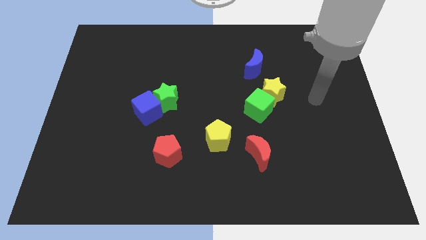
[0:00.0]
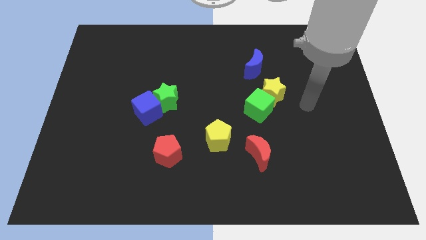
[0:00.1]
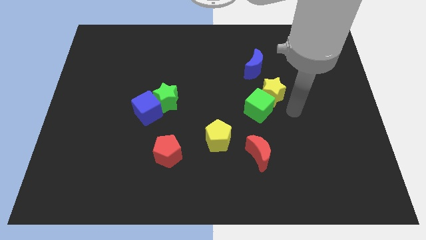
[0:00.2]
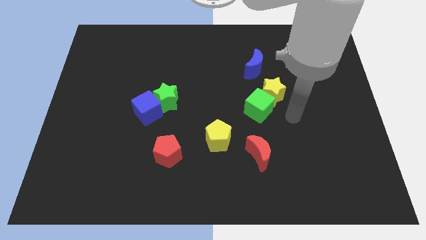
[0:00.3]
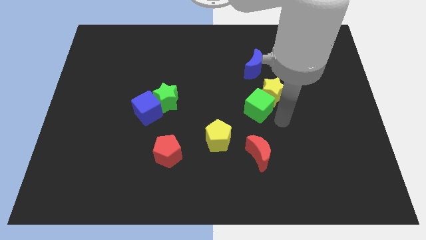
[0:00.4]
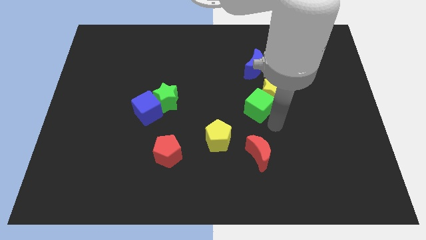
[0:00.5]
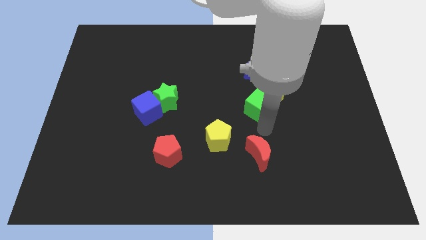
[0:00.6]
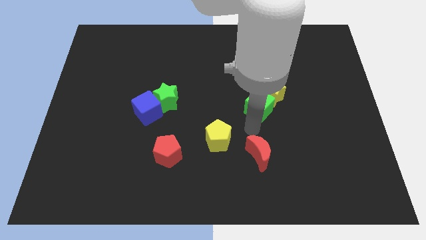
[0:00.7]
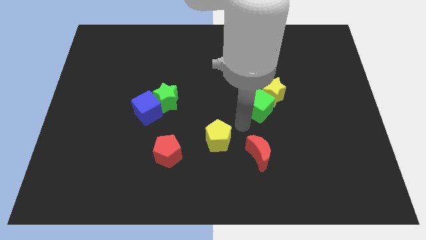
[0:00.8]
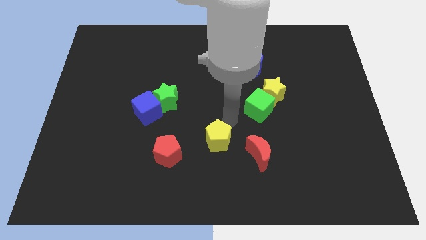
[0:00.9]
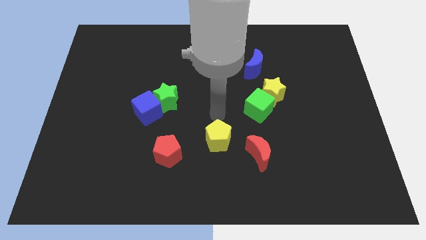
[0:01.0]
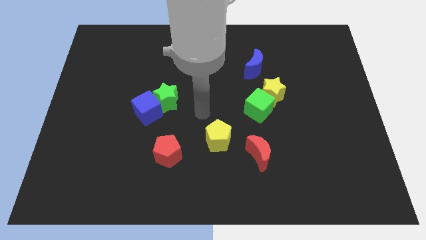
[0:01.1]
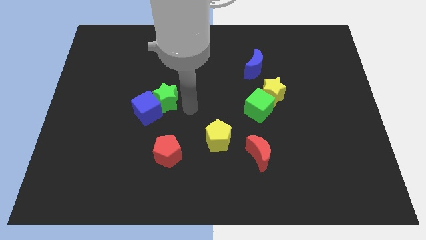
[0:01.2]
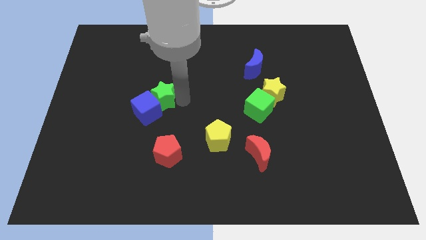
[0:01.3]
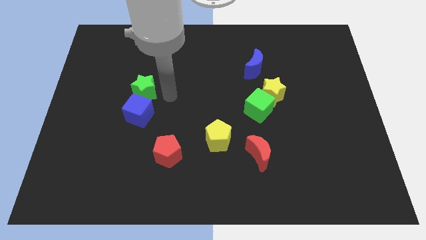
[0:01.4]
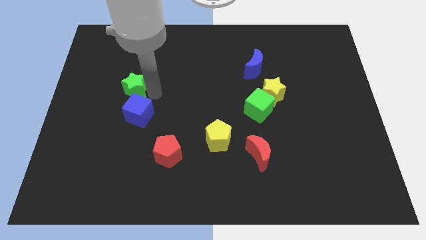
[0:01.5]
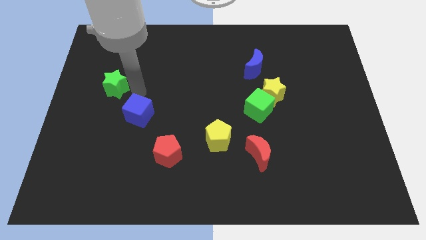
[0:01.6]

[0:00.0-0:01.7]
separate the blue cube from the green star

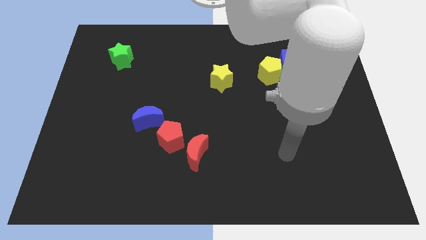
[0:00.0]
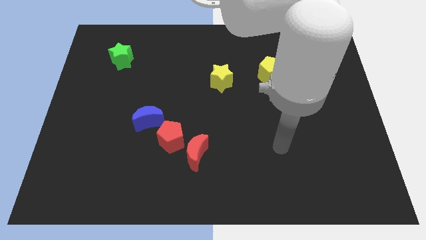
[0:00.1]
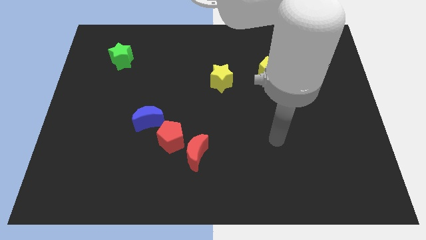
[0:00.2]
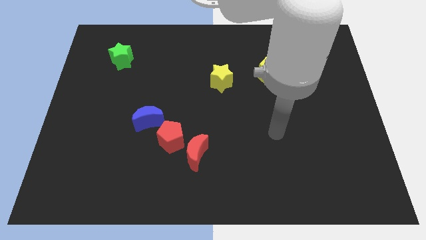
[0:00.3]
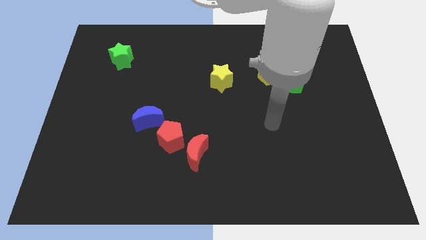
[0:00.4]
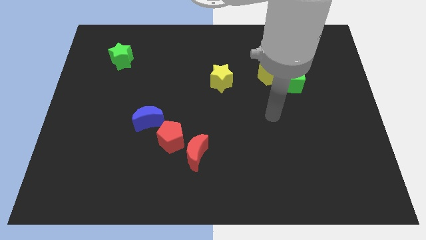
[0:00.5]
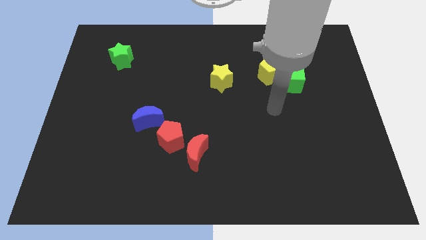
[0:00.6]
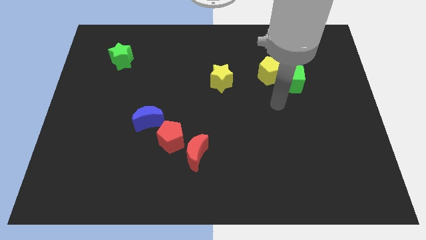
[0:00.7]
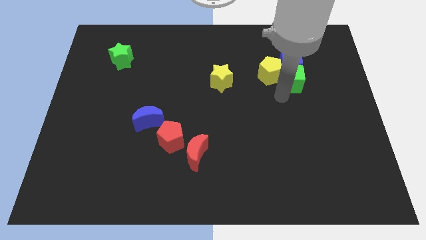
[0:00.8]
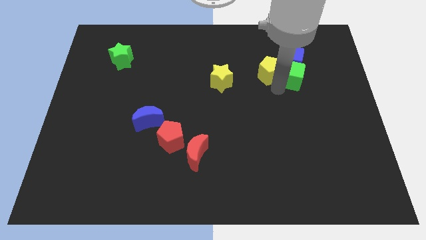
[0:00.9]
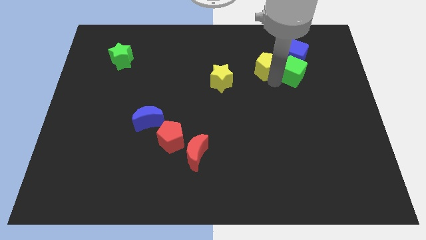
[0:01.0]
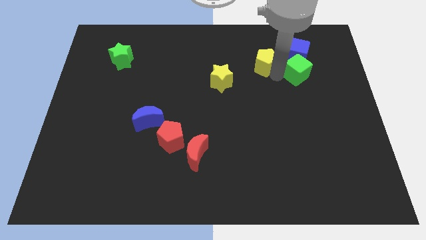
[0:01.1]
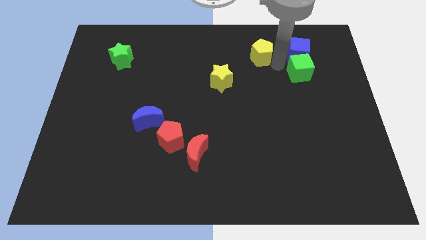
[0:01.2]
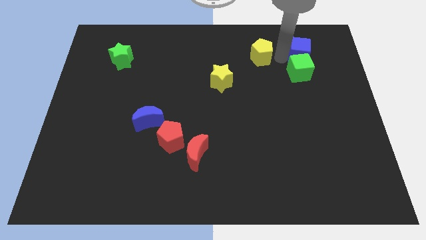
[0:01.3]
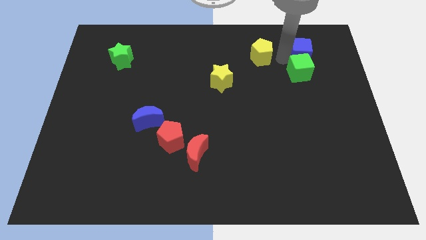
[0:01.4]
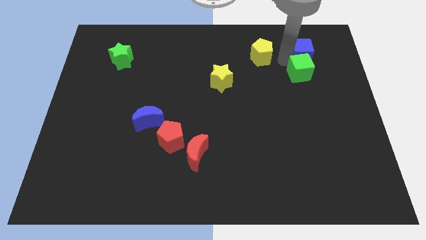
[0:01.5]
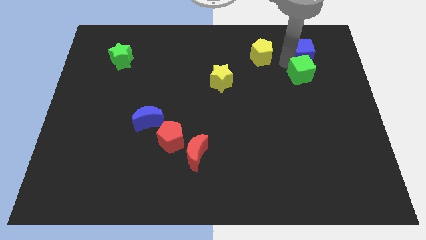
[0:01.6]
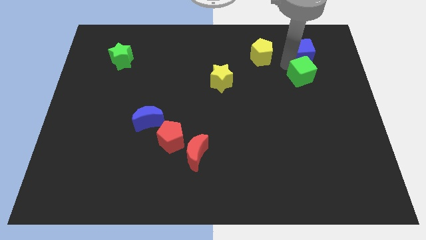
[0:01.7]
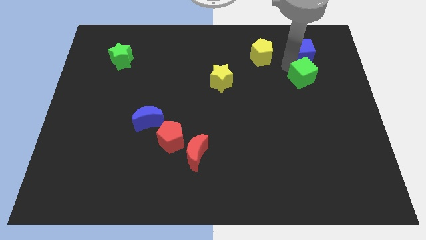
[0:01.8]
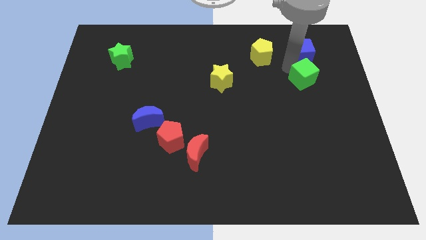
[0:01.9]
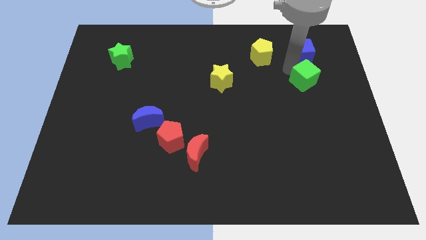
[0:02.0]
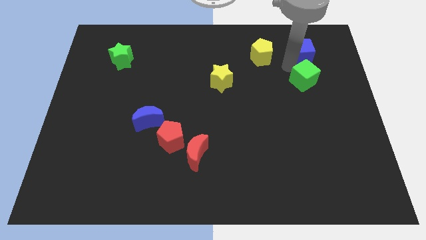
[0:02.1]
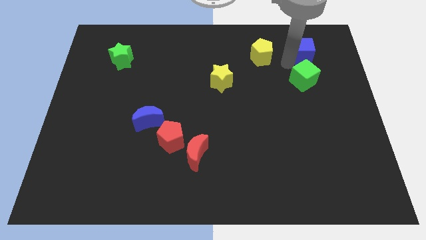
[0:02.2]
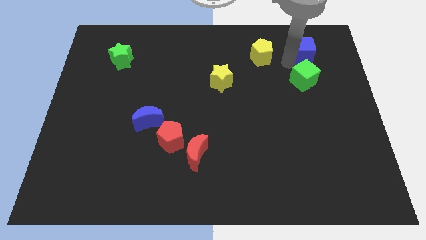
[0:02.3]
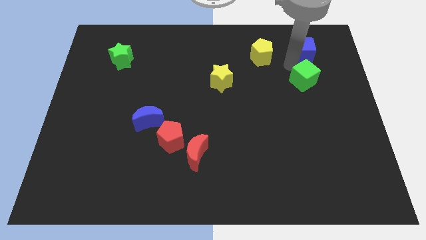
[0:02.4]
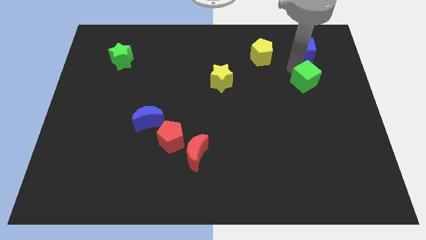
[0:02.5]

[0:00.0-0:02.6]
move the green cube away from the blue cube and yellow pentagon

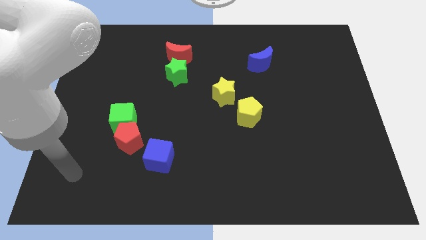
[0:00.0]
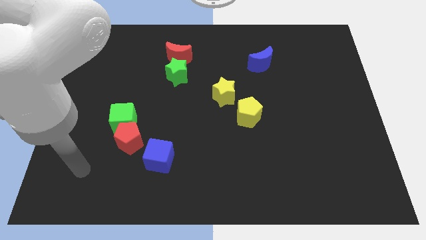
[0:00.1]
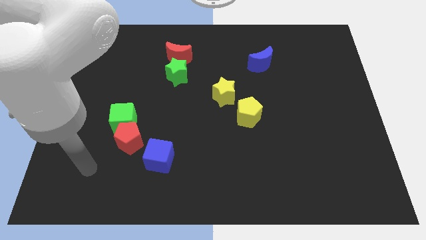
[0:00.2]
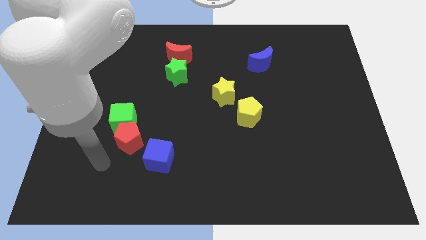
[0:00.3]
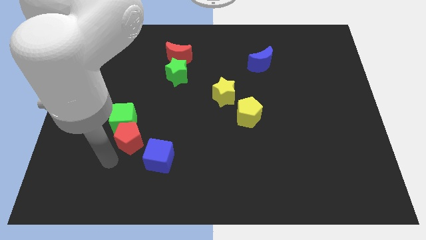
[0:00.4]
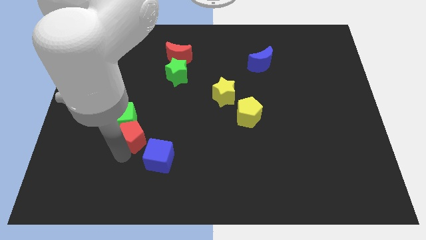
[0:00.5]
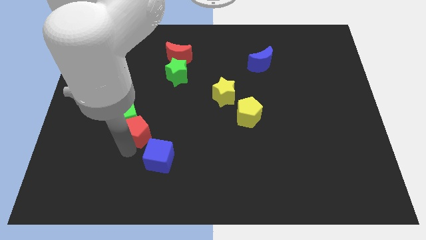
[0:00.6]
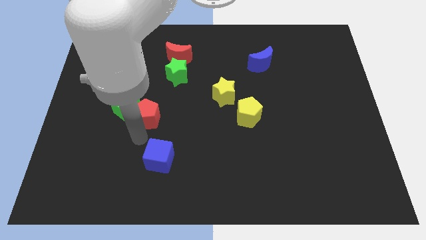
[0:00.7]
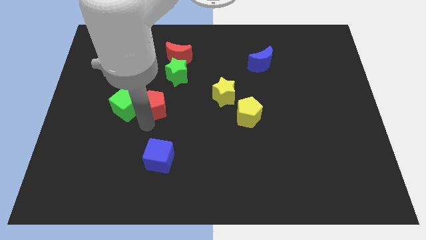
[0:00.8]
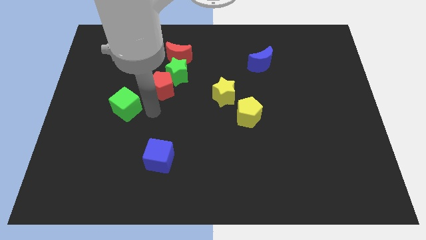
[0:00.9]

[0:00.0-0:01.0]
separate the green cube from the red pentagon

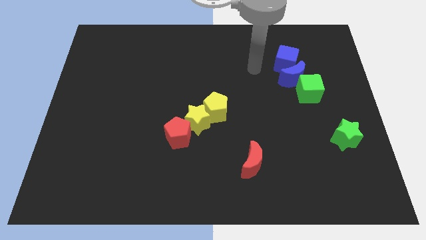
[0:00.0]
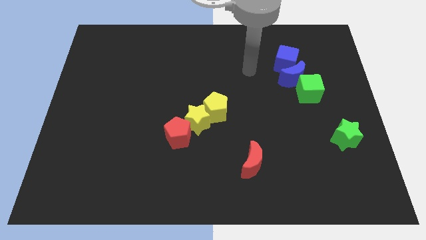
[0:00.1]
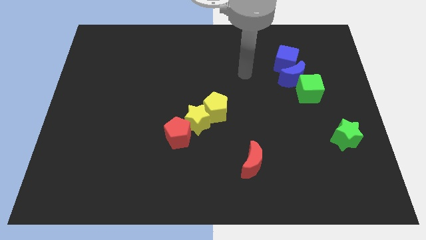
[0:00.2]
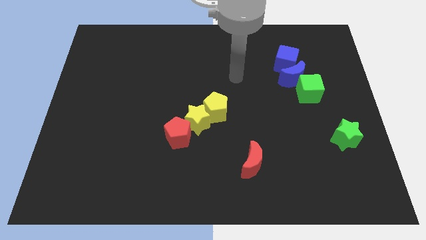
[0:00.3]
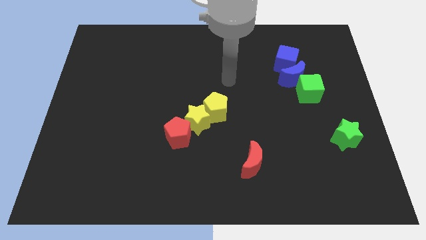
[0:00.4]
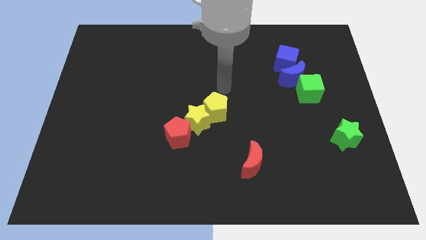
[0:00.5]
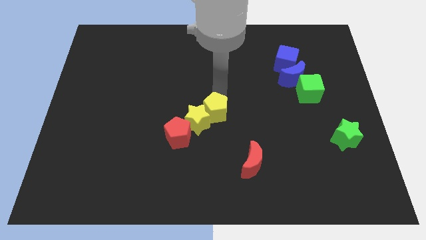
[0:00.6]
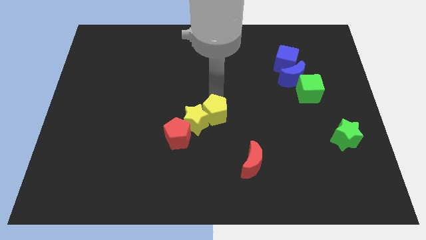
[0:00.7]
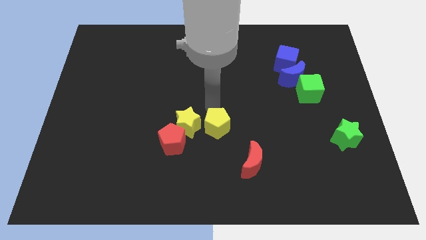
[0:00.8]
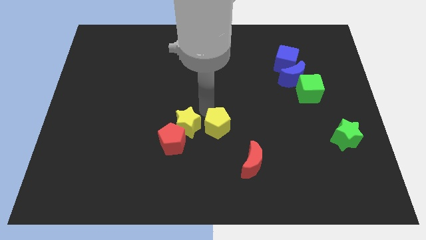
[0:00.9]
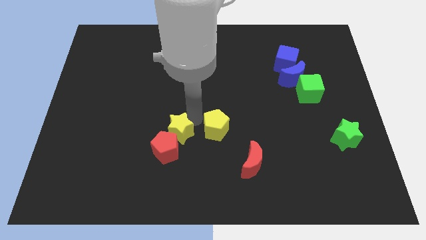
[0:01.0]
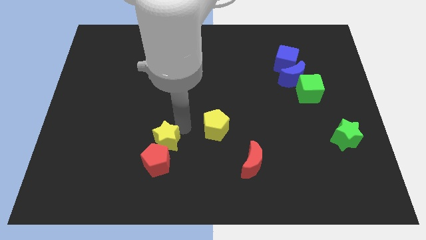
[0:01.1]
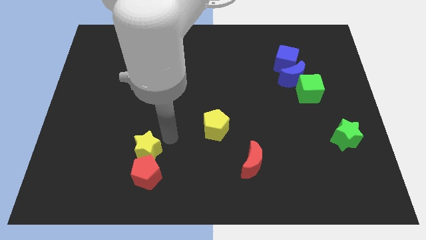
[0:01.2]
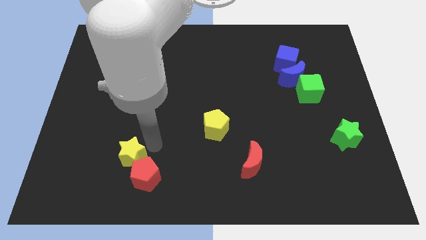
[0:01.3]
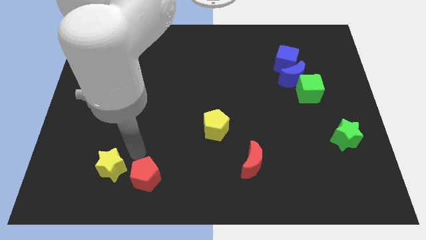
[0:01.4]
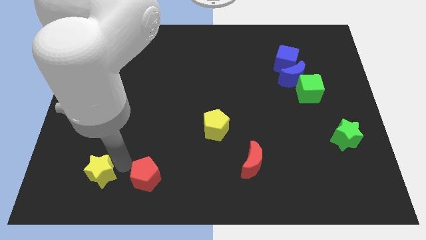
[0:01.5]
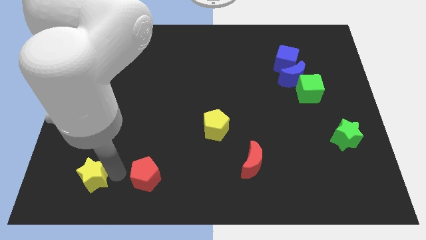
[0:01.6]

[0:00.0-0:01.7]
move the red pentagon away from the yellow star

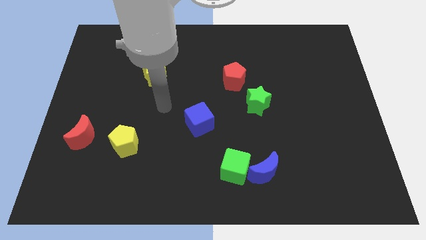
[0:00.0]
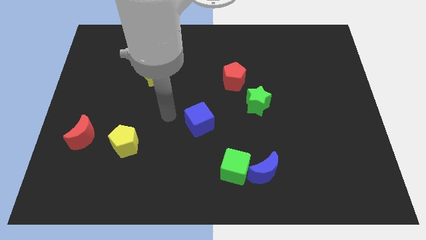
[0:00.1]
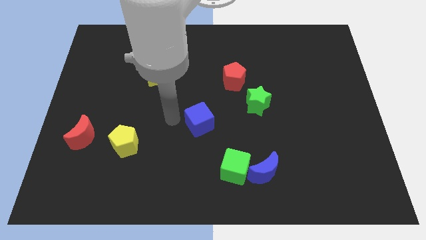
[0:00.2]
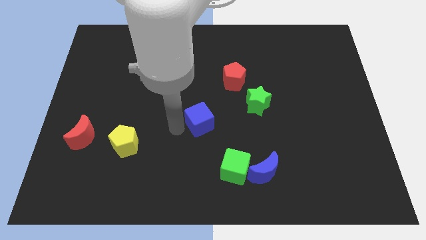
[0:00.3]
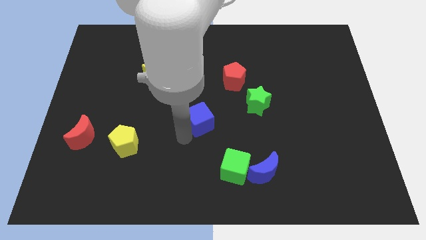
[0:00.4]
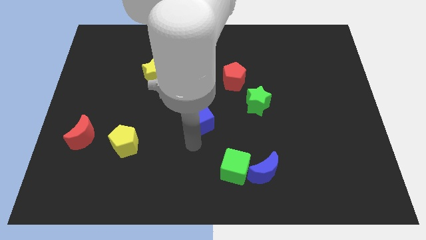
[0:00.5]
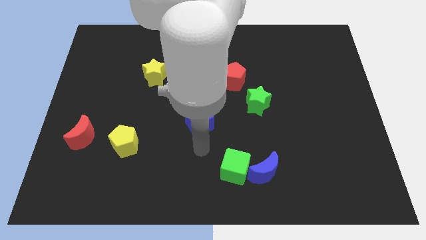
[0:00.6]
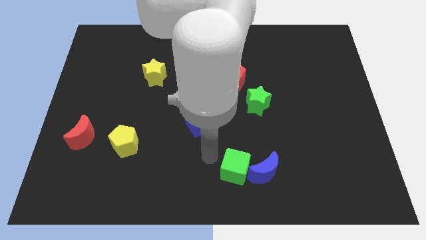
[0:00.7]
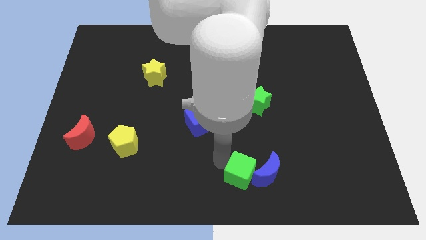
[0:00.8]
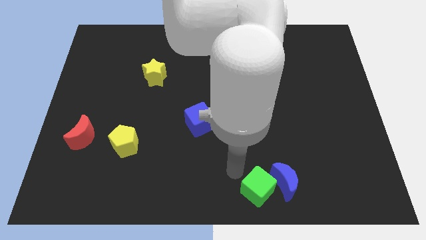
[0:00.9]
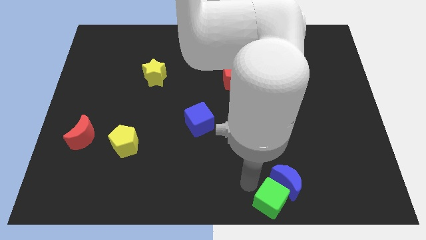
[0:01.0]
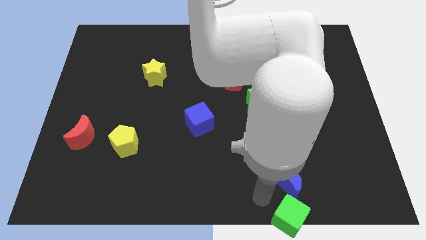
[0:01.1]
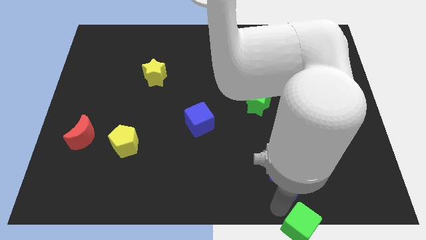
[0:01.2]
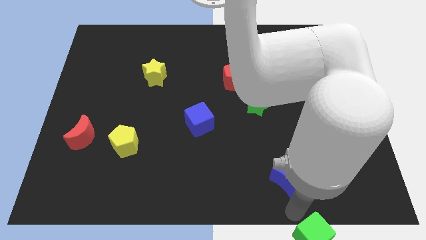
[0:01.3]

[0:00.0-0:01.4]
separate the blue moon from the green cube

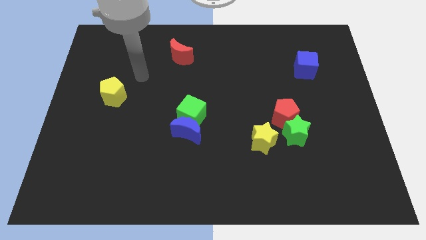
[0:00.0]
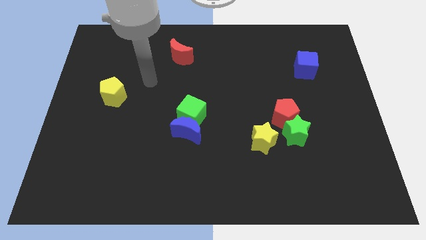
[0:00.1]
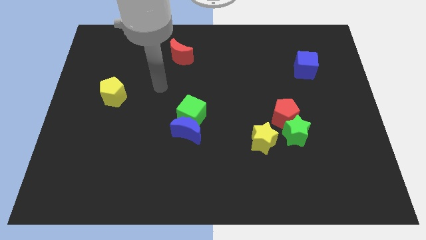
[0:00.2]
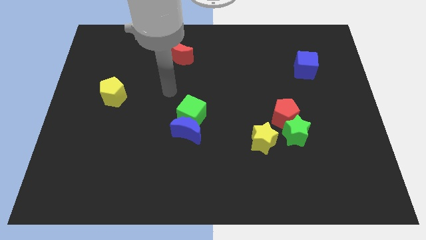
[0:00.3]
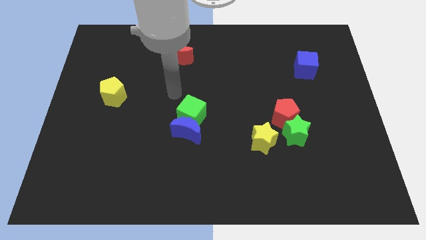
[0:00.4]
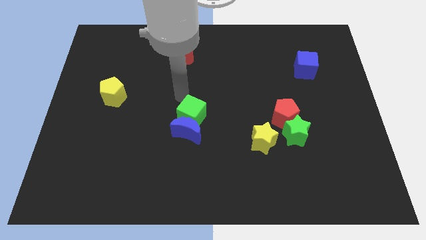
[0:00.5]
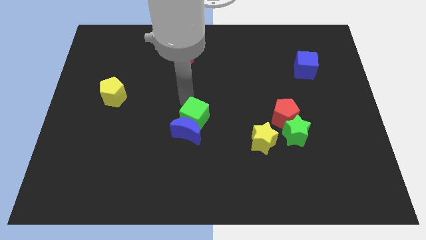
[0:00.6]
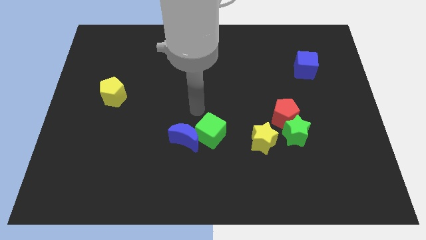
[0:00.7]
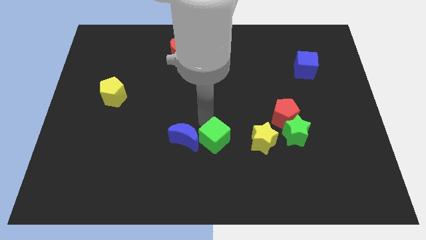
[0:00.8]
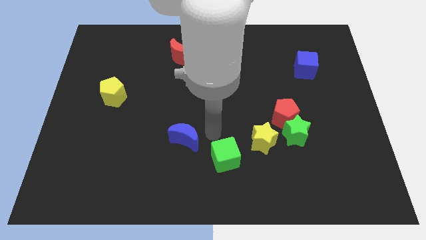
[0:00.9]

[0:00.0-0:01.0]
pull the blue moon apart from the green cube
